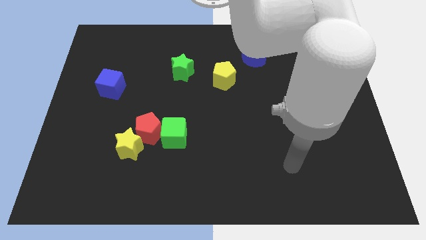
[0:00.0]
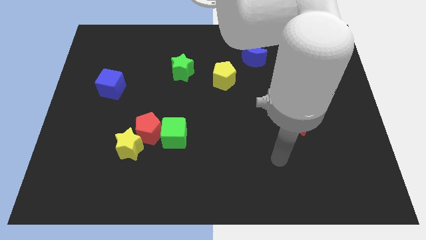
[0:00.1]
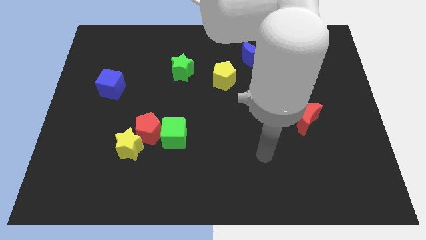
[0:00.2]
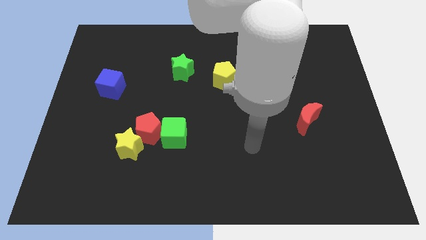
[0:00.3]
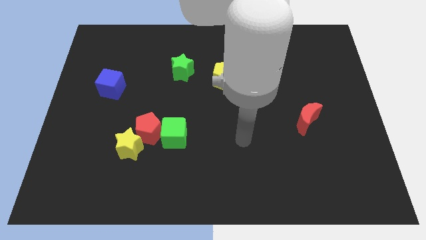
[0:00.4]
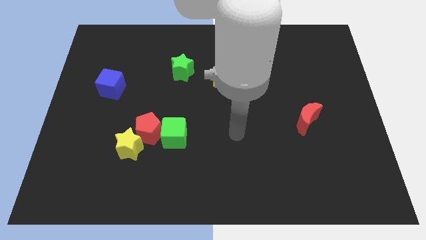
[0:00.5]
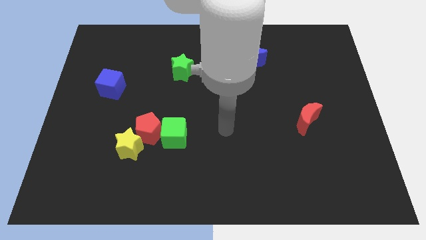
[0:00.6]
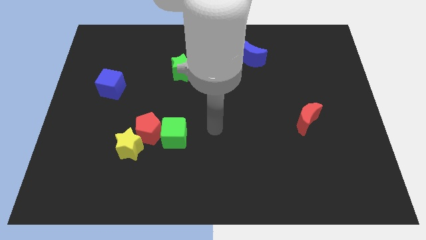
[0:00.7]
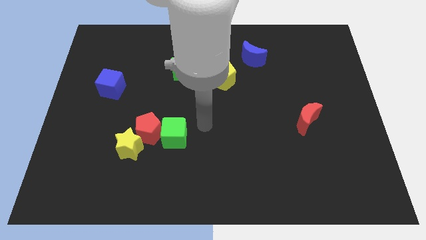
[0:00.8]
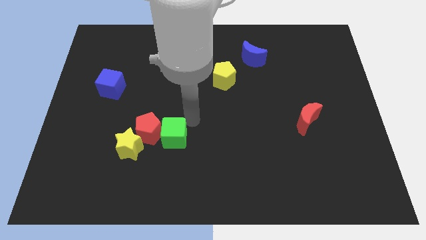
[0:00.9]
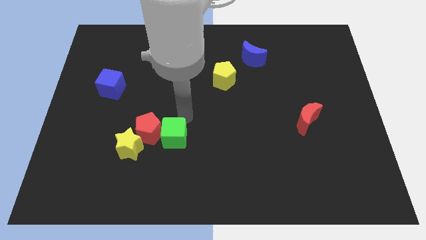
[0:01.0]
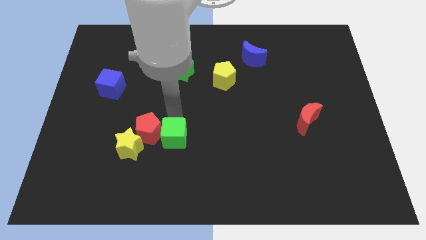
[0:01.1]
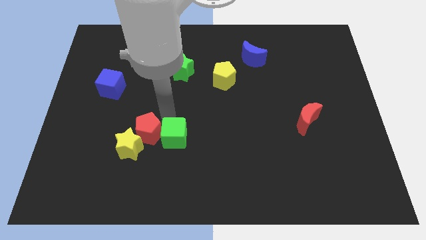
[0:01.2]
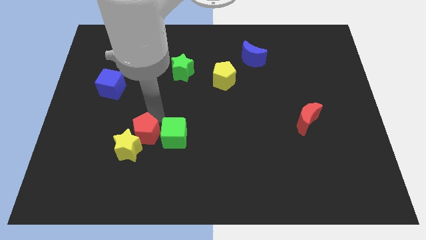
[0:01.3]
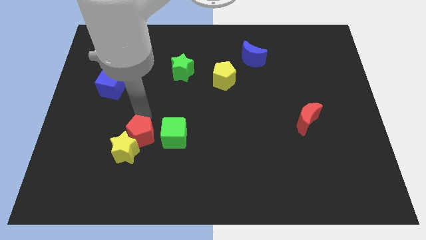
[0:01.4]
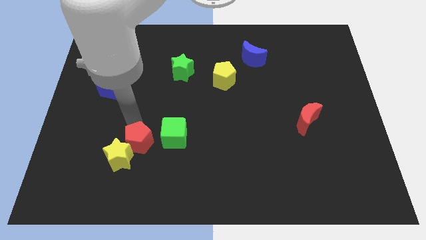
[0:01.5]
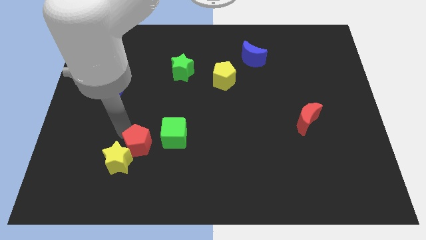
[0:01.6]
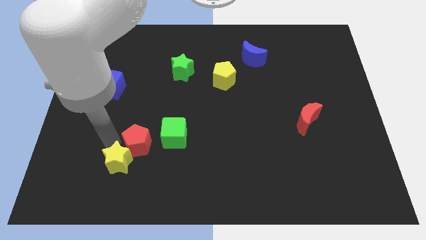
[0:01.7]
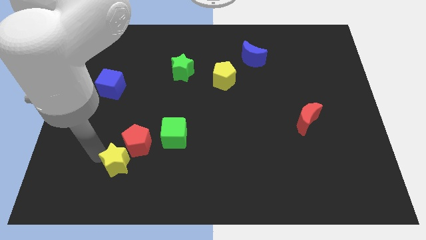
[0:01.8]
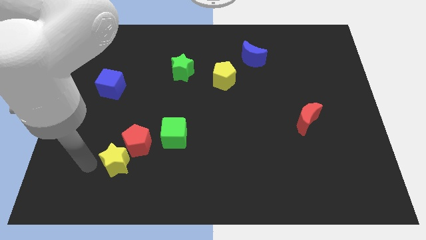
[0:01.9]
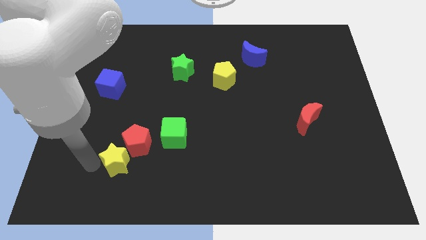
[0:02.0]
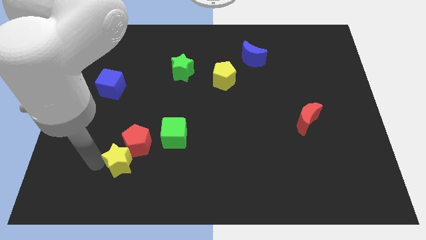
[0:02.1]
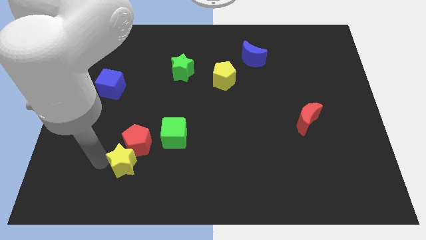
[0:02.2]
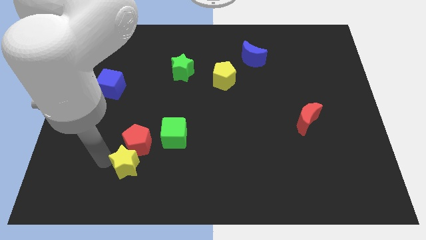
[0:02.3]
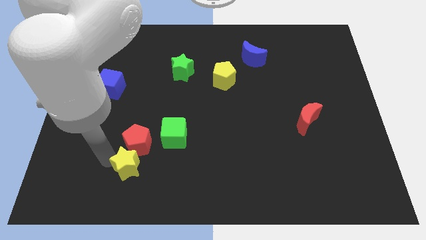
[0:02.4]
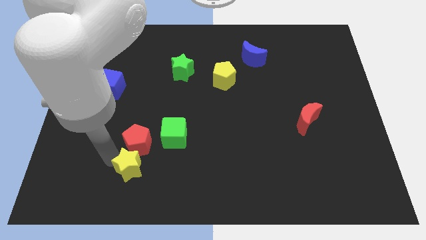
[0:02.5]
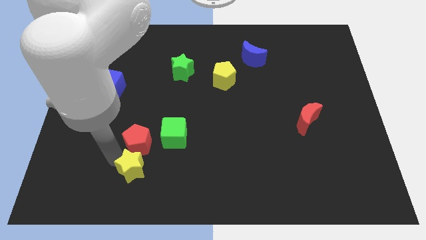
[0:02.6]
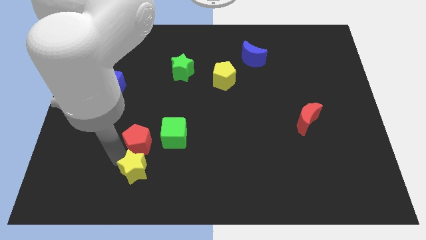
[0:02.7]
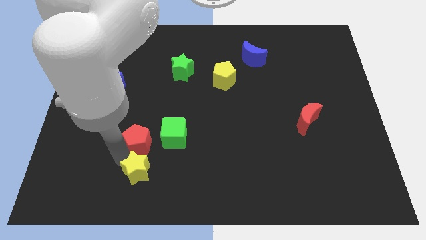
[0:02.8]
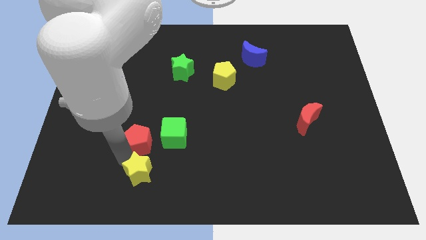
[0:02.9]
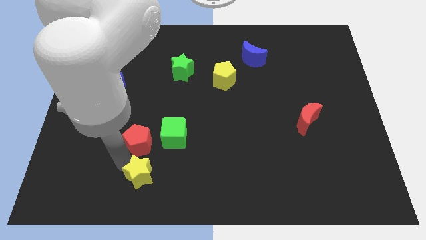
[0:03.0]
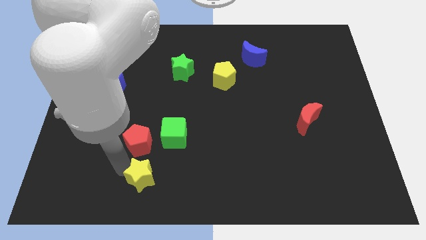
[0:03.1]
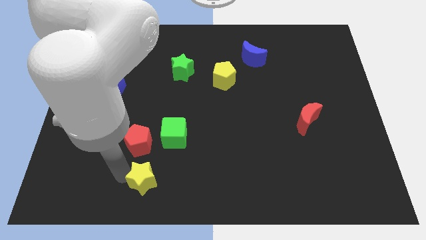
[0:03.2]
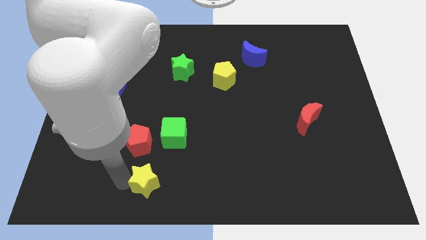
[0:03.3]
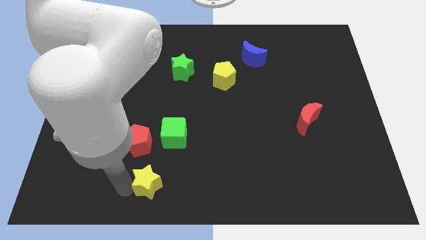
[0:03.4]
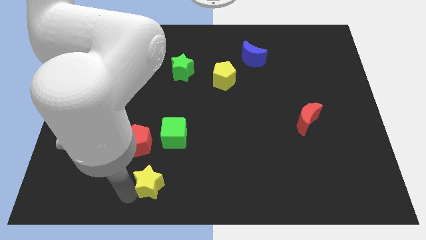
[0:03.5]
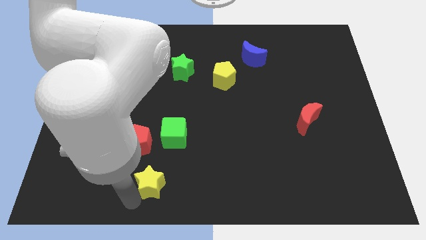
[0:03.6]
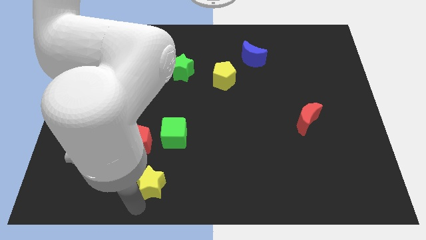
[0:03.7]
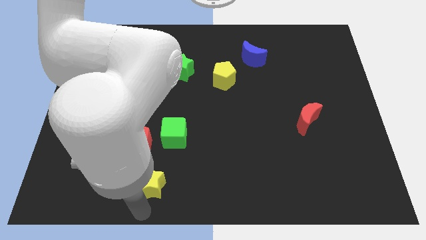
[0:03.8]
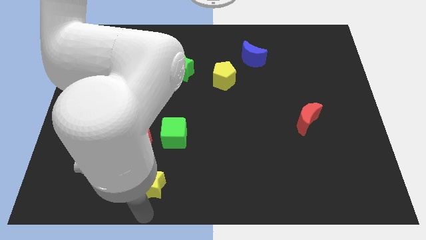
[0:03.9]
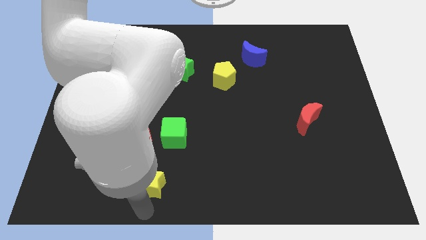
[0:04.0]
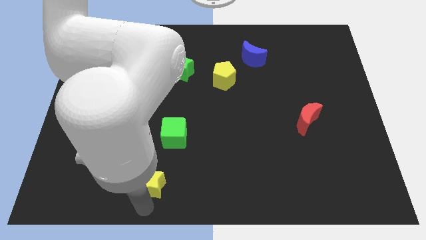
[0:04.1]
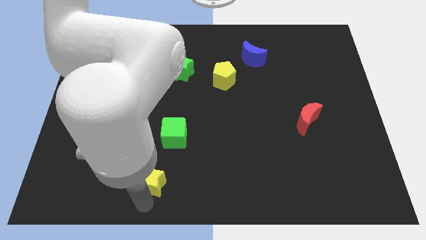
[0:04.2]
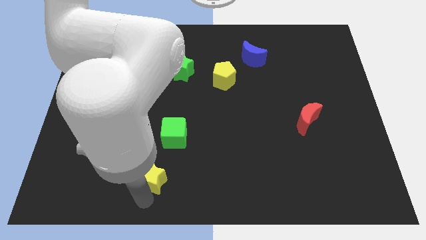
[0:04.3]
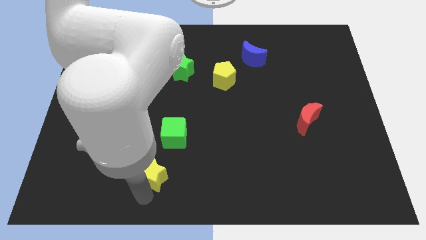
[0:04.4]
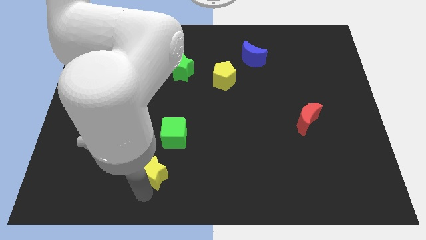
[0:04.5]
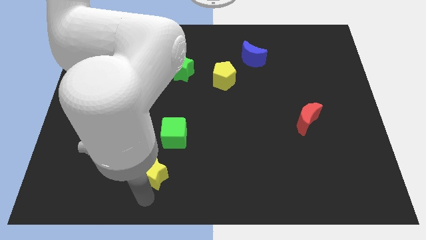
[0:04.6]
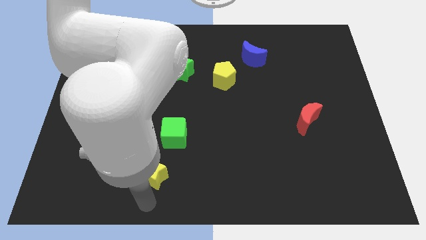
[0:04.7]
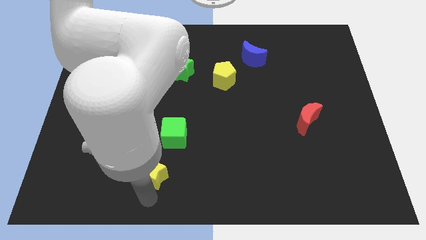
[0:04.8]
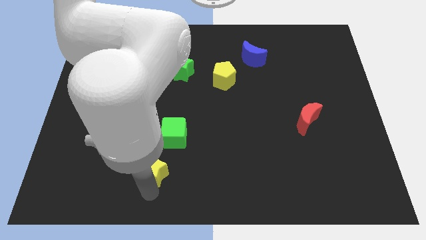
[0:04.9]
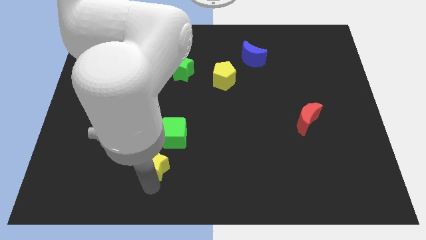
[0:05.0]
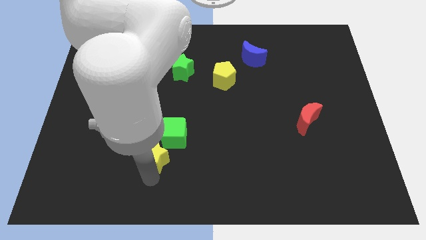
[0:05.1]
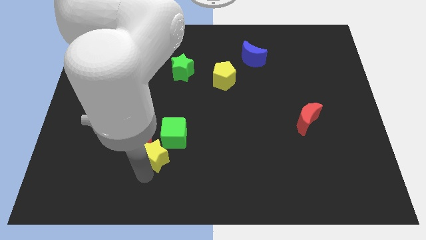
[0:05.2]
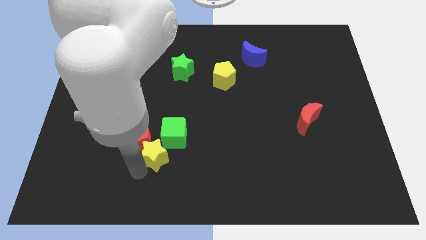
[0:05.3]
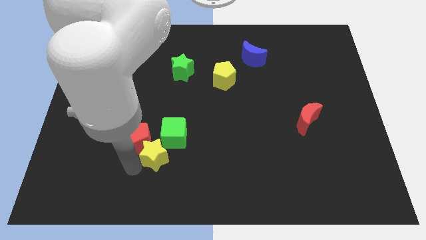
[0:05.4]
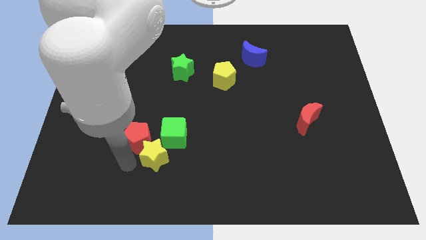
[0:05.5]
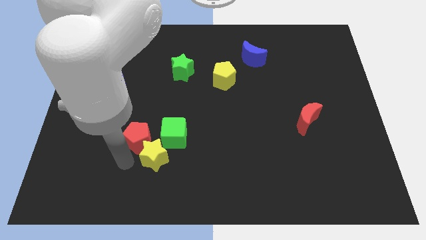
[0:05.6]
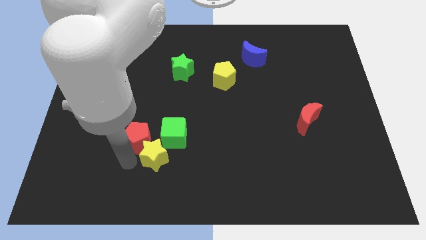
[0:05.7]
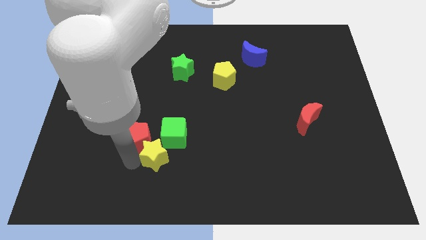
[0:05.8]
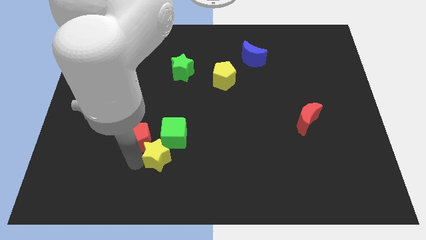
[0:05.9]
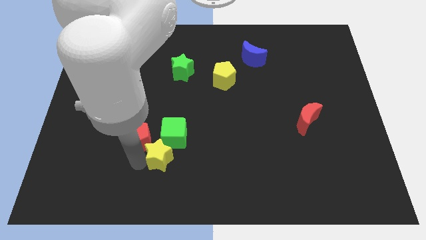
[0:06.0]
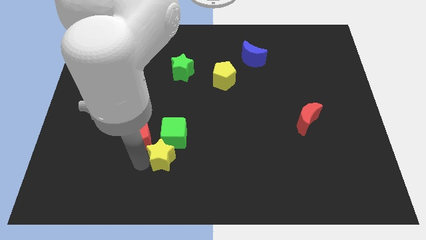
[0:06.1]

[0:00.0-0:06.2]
push the yellow star right a little bit

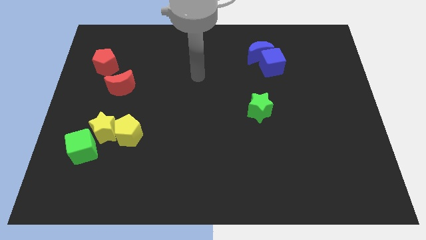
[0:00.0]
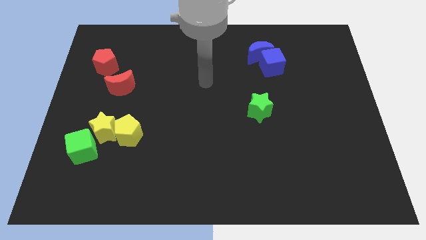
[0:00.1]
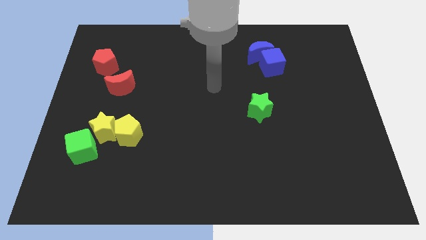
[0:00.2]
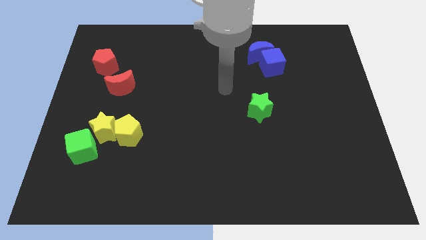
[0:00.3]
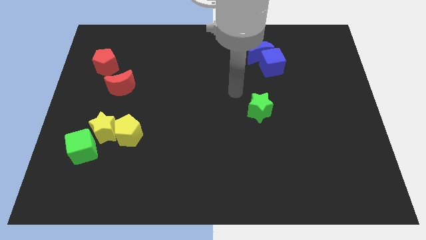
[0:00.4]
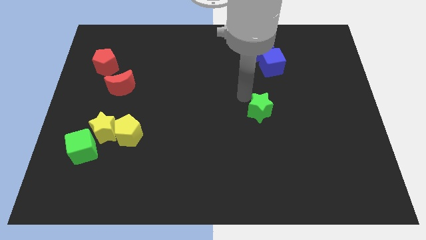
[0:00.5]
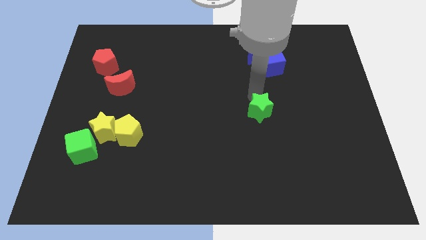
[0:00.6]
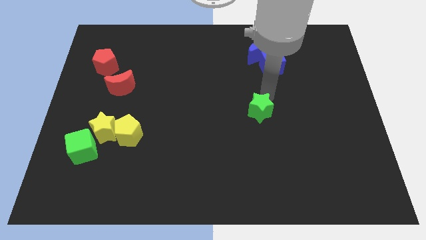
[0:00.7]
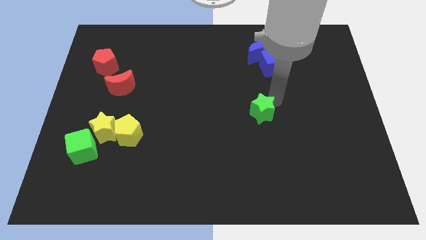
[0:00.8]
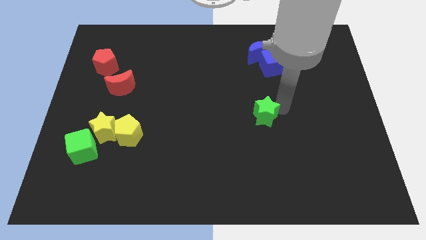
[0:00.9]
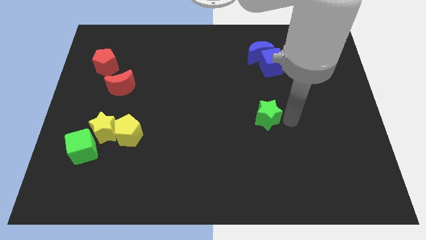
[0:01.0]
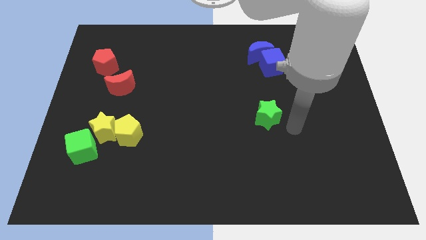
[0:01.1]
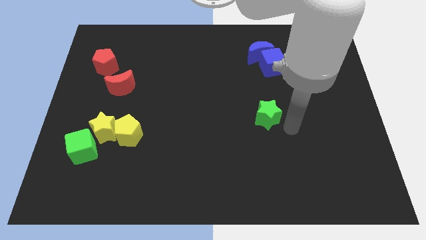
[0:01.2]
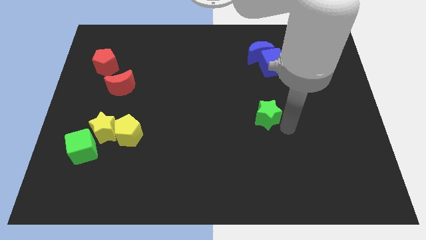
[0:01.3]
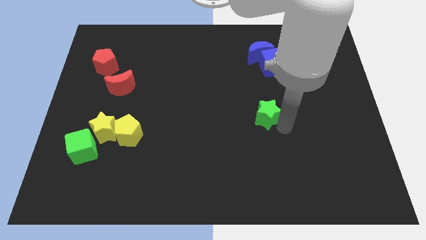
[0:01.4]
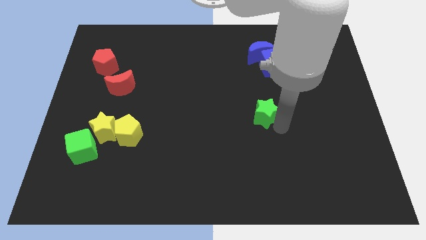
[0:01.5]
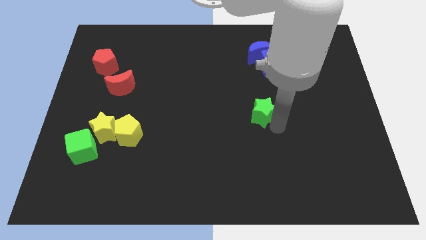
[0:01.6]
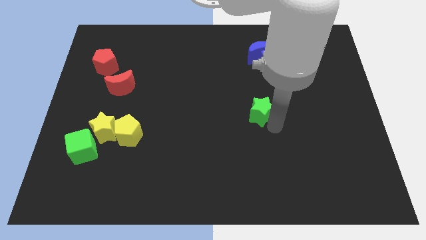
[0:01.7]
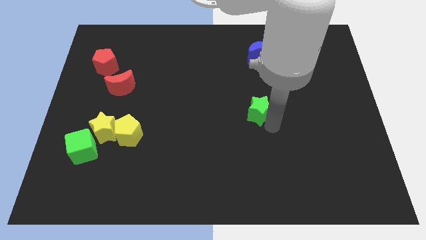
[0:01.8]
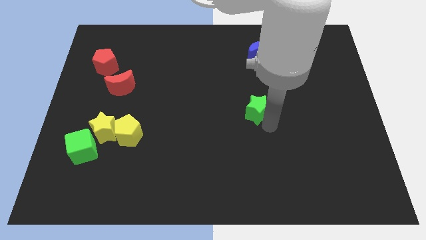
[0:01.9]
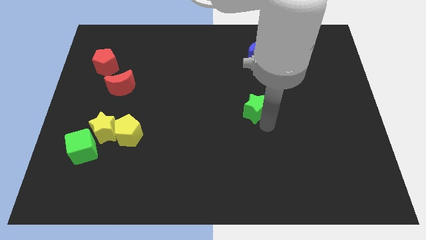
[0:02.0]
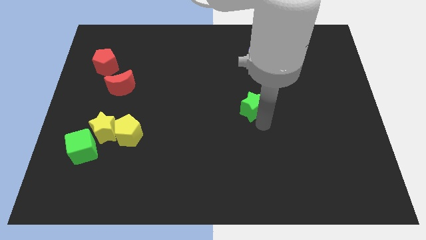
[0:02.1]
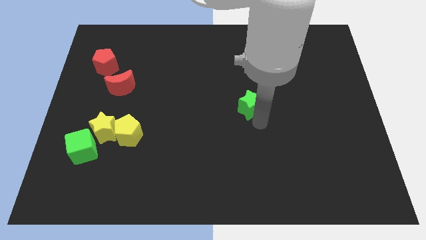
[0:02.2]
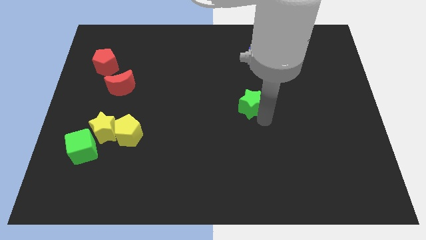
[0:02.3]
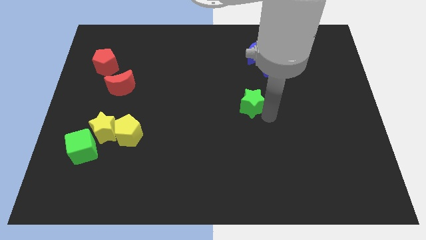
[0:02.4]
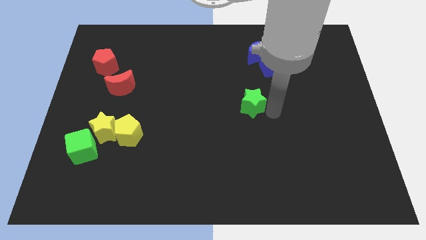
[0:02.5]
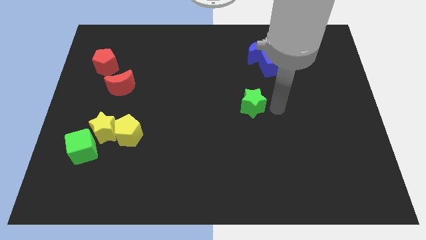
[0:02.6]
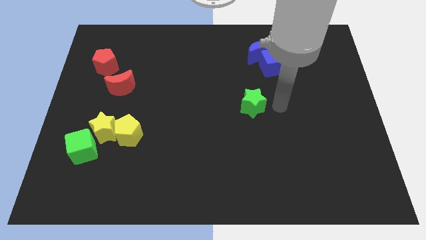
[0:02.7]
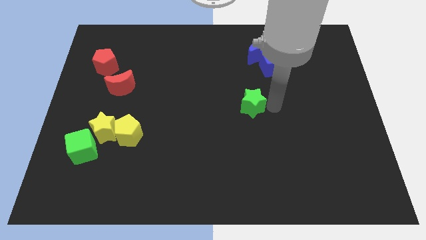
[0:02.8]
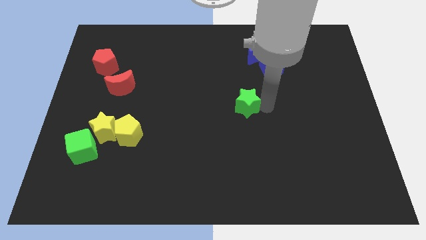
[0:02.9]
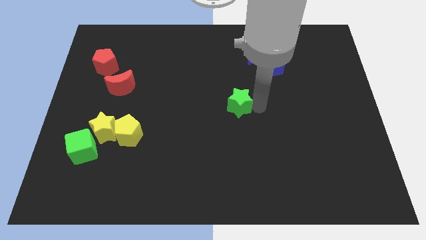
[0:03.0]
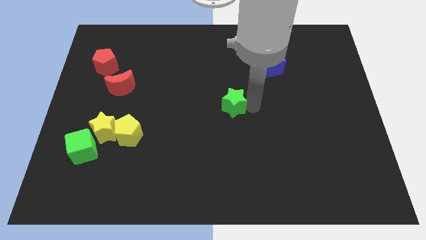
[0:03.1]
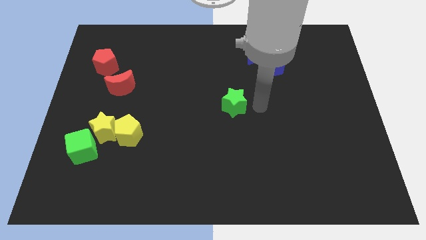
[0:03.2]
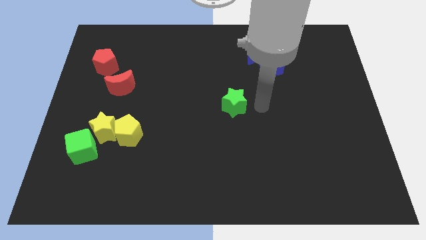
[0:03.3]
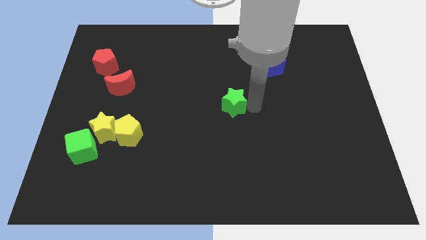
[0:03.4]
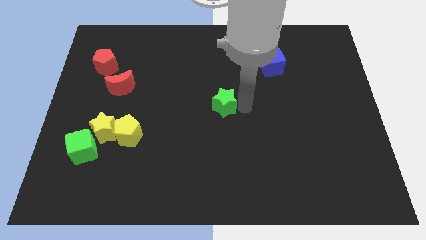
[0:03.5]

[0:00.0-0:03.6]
slightly move the green star to the left
